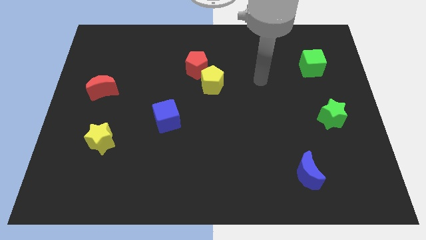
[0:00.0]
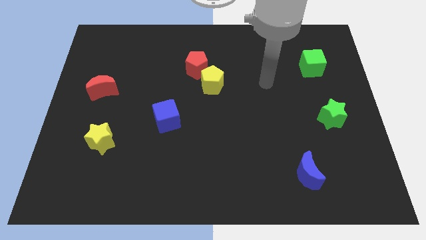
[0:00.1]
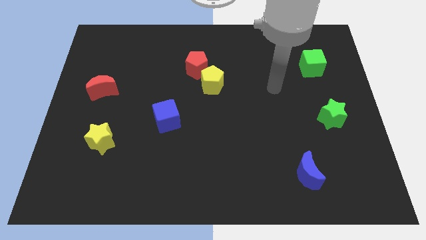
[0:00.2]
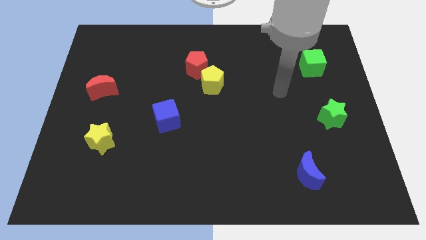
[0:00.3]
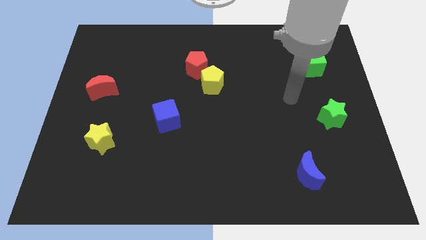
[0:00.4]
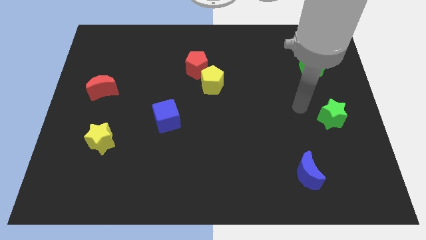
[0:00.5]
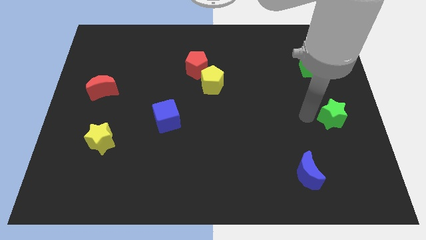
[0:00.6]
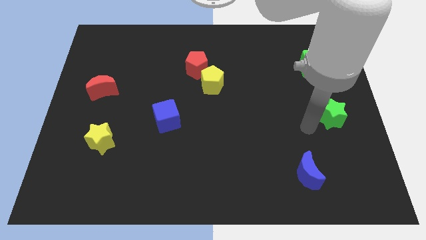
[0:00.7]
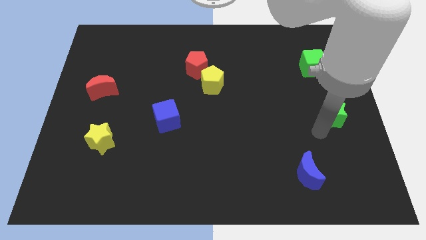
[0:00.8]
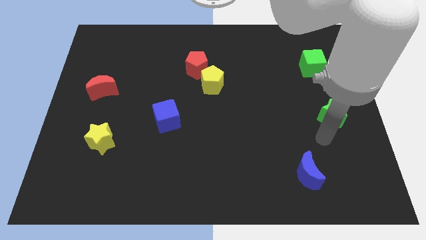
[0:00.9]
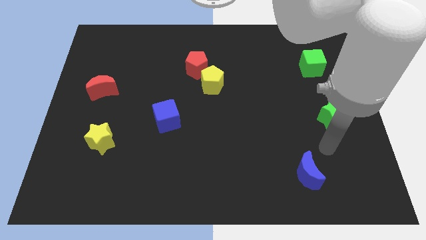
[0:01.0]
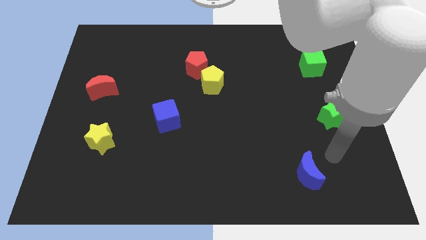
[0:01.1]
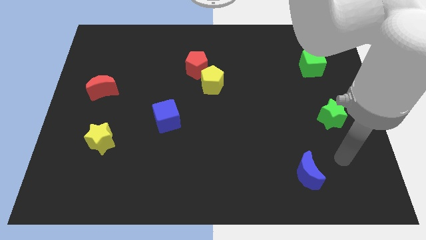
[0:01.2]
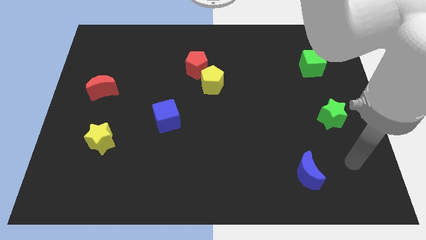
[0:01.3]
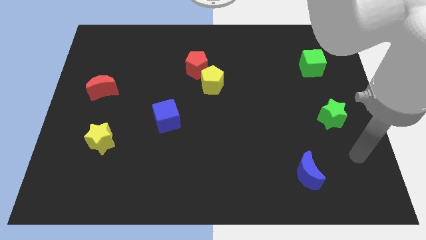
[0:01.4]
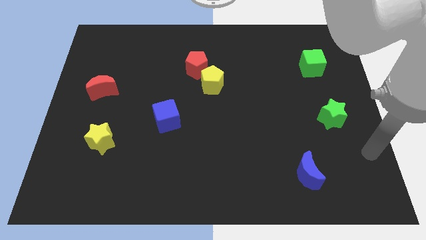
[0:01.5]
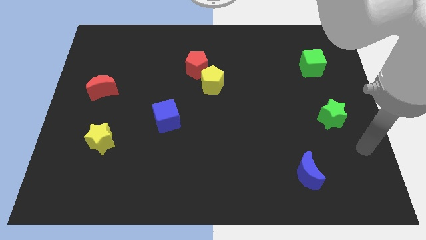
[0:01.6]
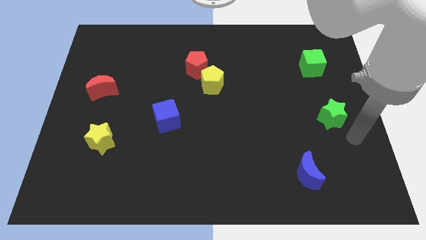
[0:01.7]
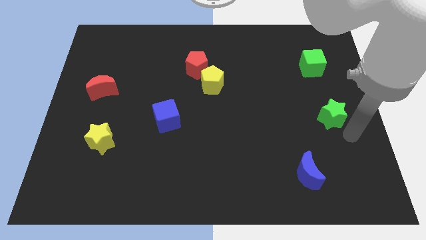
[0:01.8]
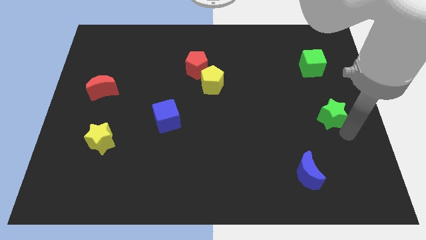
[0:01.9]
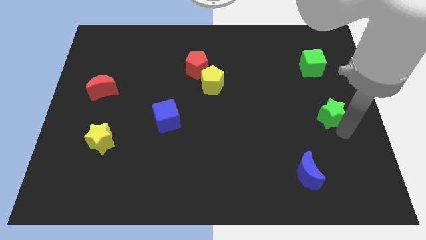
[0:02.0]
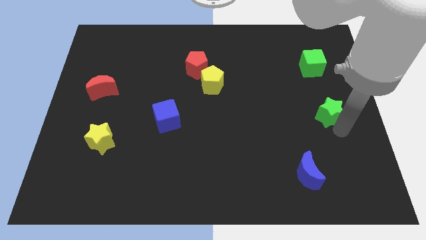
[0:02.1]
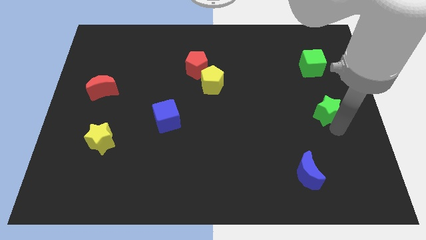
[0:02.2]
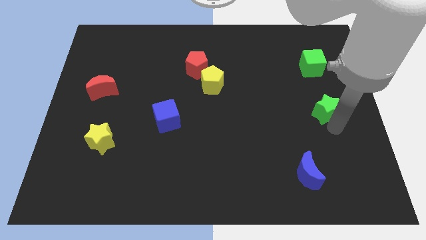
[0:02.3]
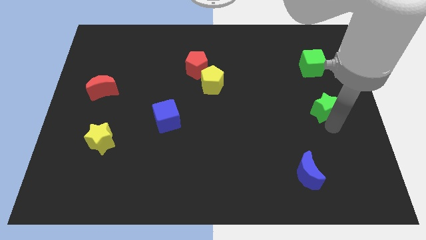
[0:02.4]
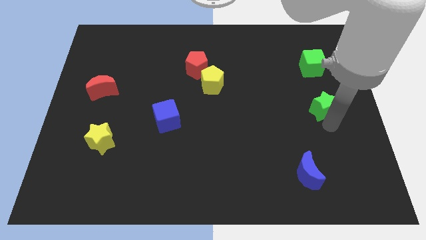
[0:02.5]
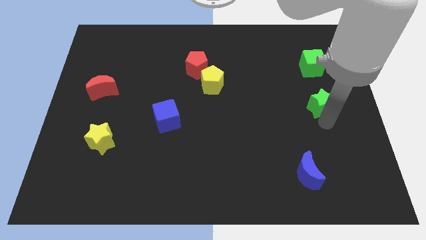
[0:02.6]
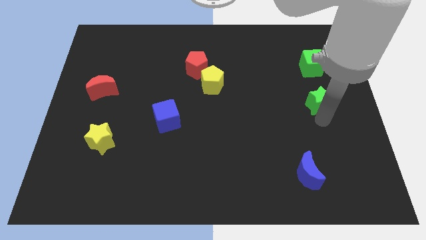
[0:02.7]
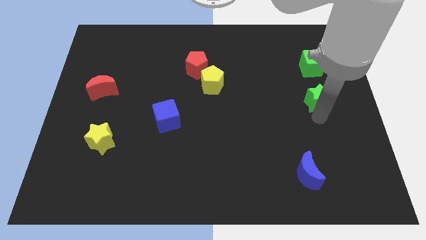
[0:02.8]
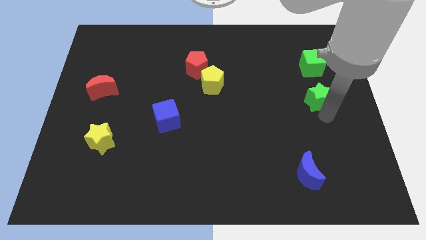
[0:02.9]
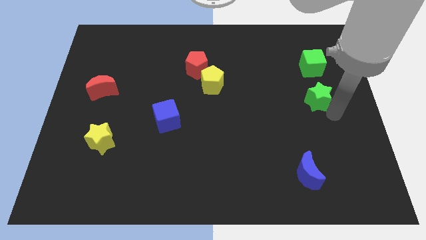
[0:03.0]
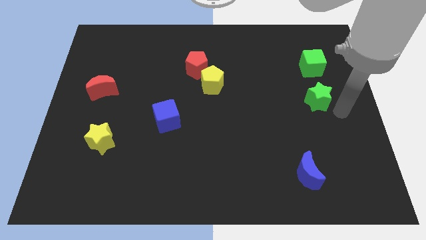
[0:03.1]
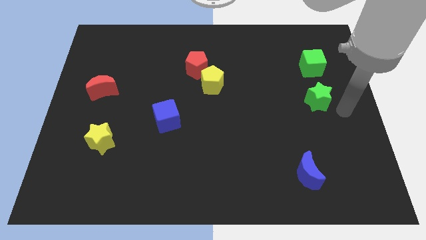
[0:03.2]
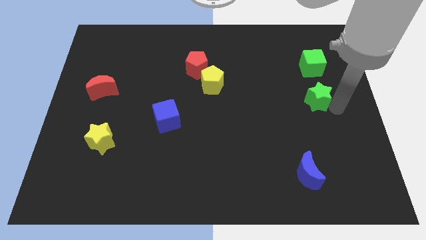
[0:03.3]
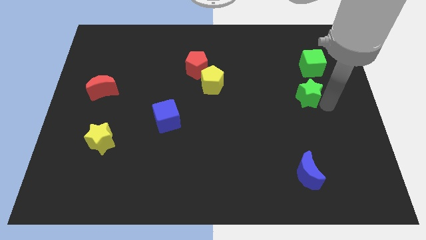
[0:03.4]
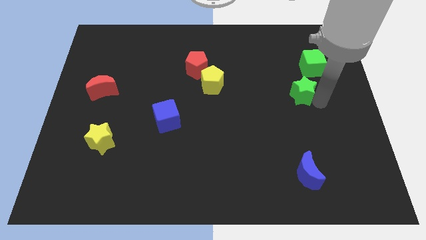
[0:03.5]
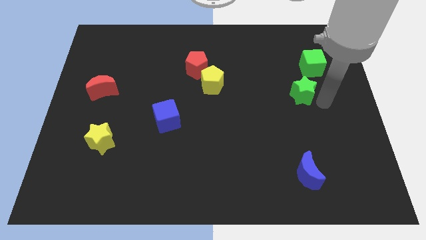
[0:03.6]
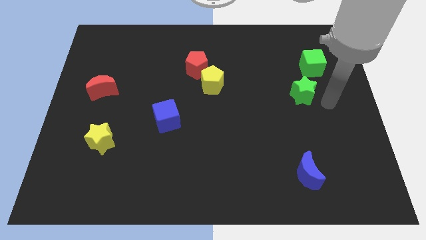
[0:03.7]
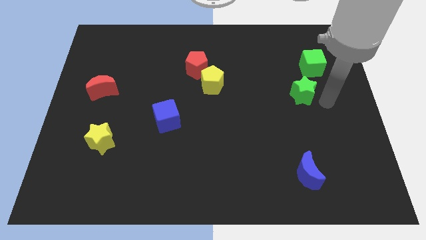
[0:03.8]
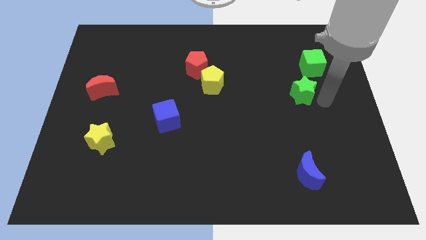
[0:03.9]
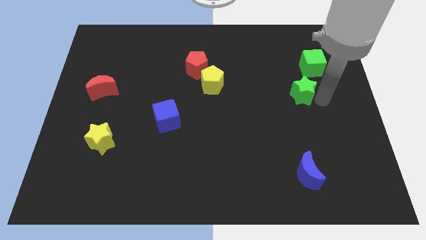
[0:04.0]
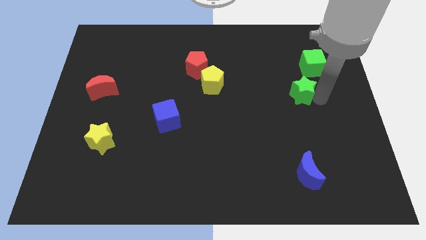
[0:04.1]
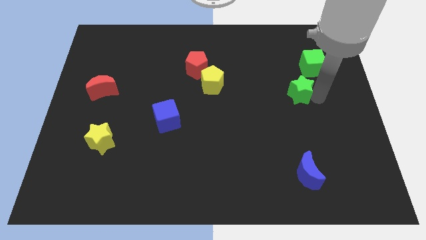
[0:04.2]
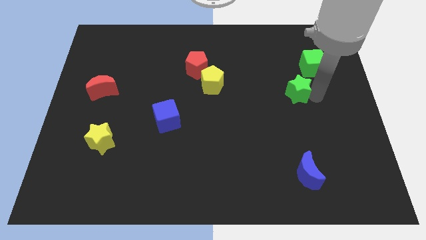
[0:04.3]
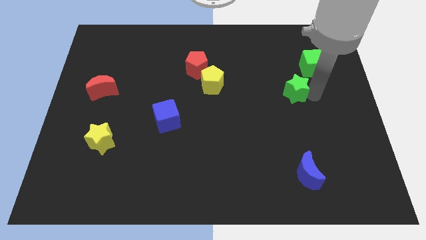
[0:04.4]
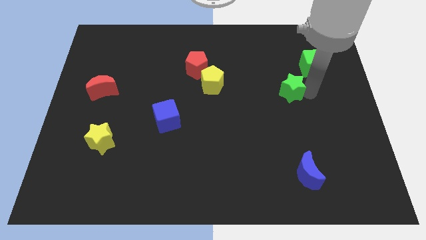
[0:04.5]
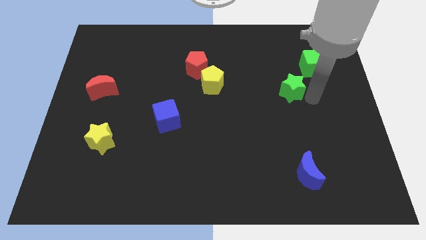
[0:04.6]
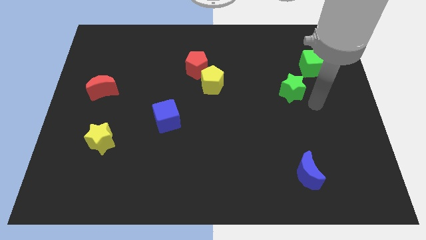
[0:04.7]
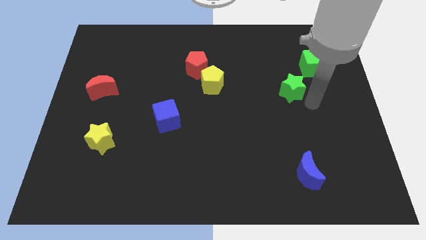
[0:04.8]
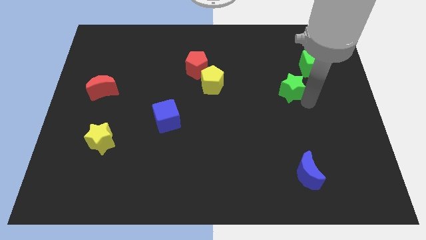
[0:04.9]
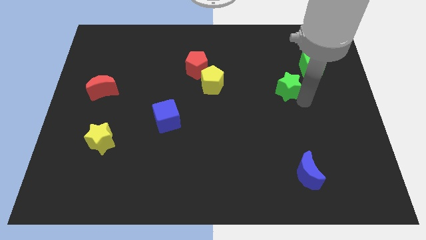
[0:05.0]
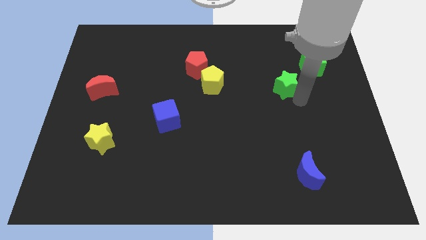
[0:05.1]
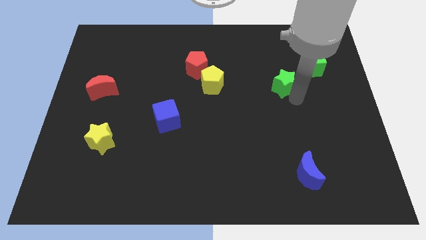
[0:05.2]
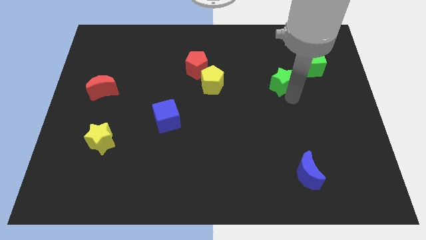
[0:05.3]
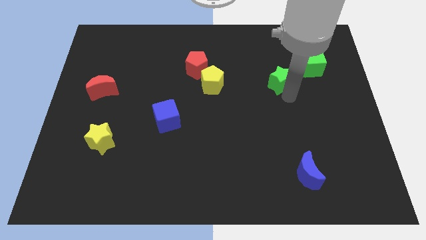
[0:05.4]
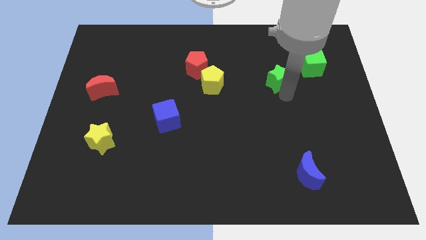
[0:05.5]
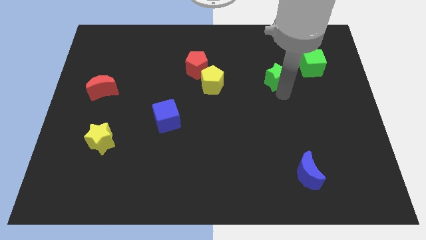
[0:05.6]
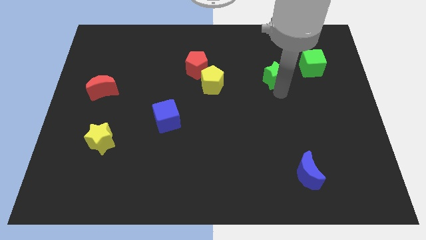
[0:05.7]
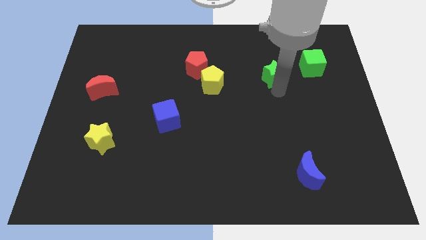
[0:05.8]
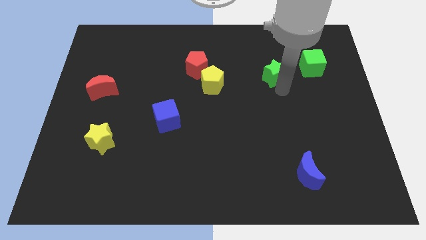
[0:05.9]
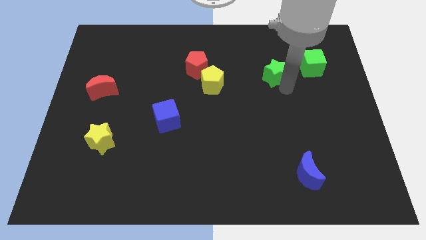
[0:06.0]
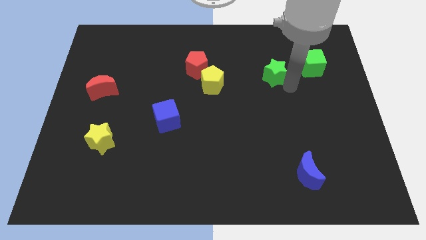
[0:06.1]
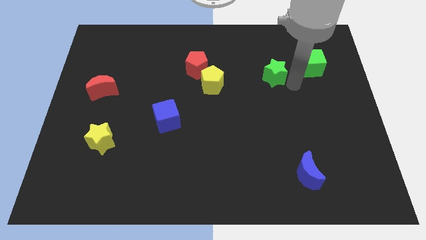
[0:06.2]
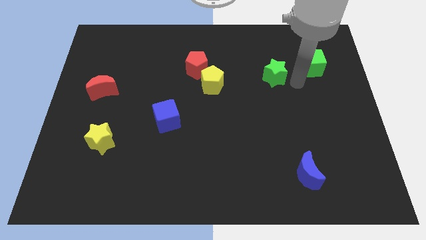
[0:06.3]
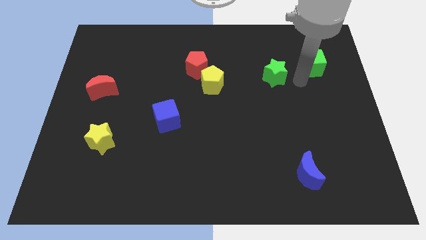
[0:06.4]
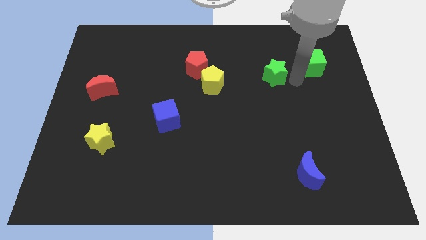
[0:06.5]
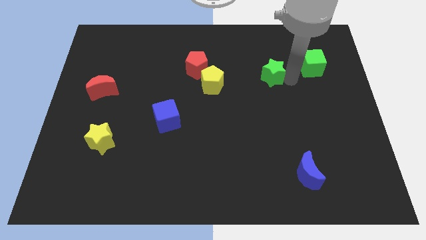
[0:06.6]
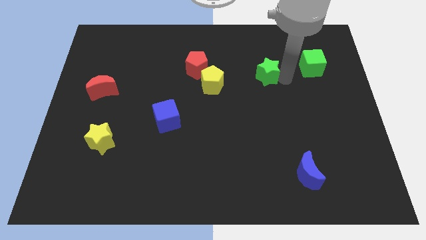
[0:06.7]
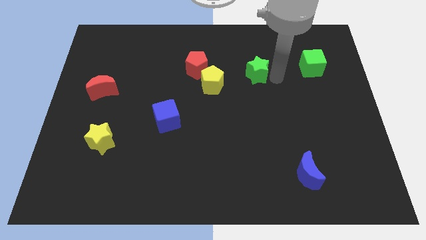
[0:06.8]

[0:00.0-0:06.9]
move the green star just right of the red pentagon

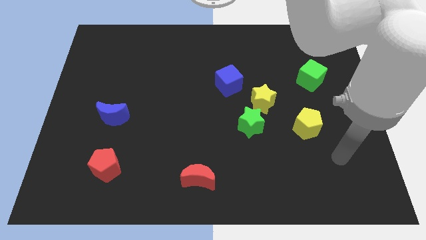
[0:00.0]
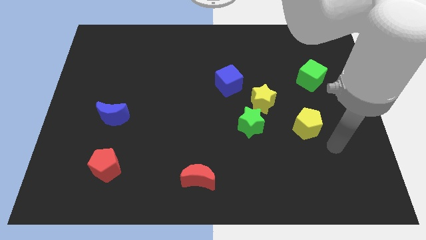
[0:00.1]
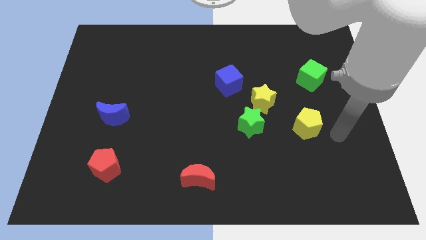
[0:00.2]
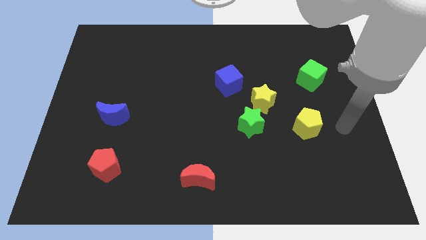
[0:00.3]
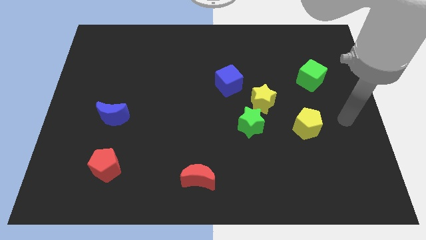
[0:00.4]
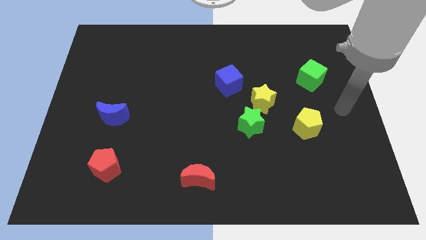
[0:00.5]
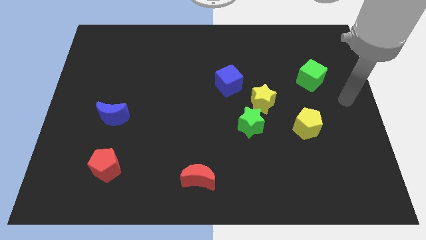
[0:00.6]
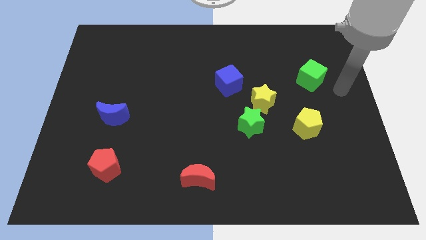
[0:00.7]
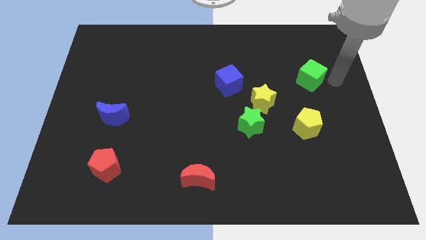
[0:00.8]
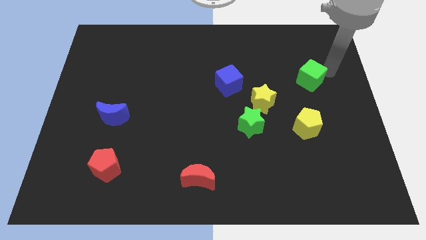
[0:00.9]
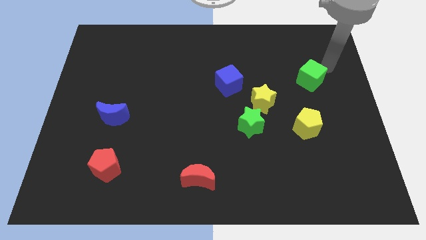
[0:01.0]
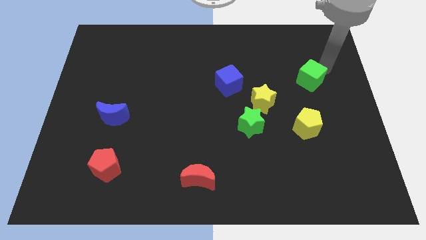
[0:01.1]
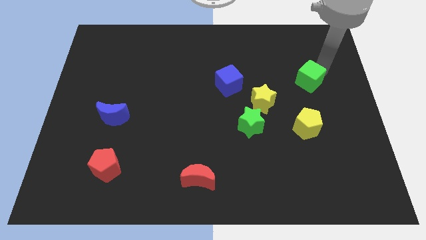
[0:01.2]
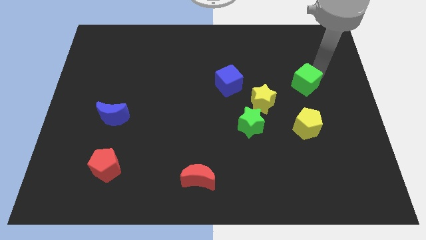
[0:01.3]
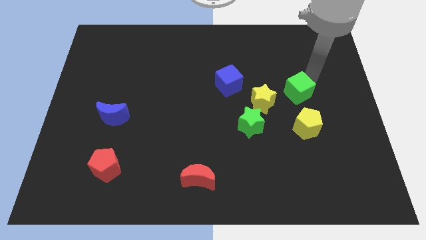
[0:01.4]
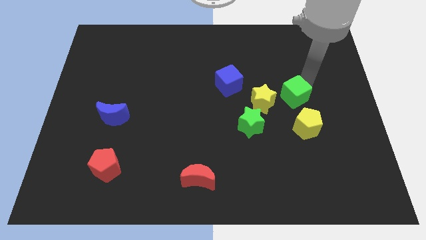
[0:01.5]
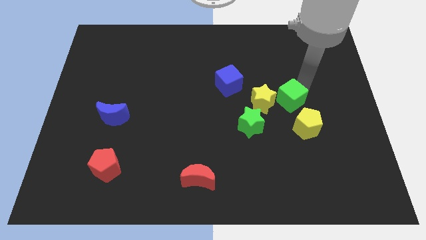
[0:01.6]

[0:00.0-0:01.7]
push the green cube to the top right side of the green star
